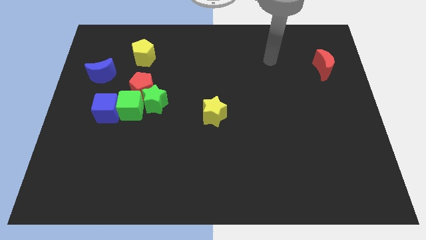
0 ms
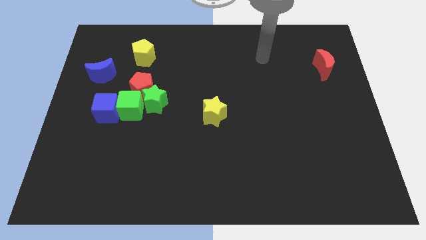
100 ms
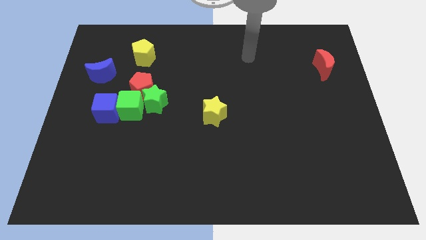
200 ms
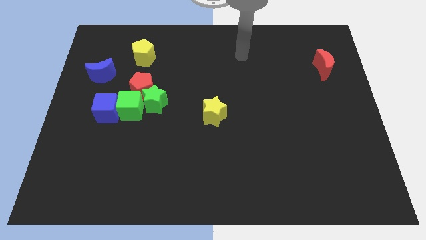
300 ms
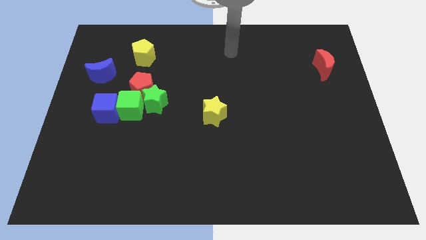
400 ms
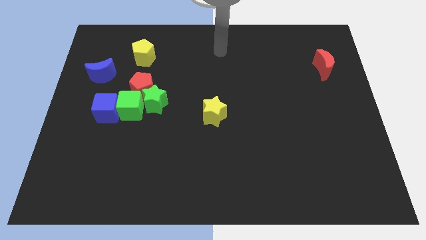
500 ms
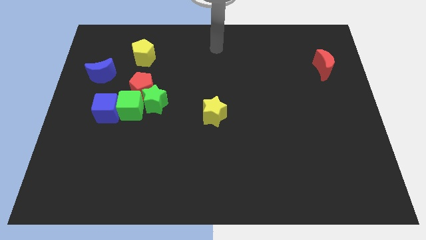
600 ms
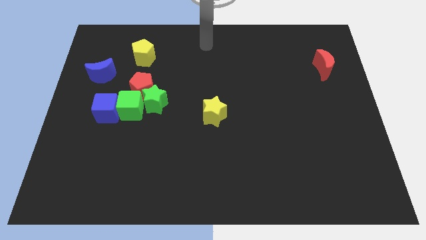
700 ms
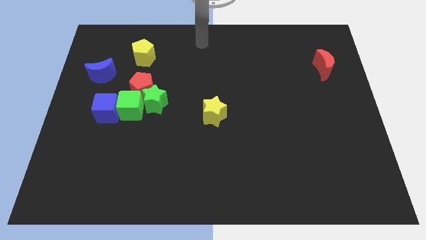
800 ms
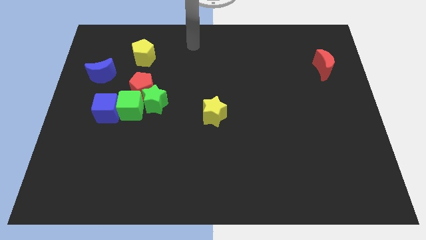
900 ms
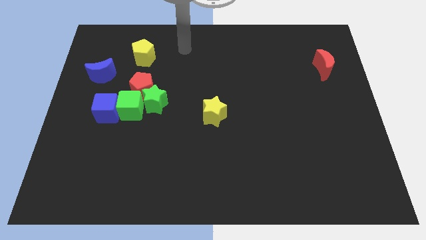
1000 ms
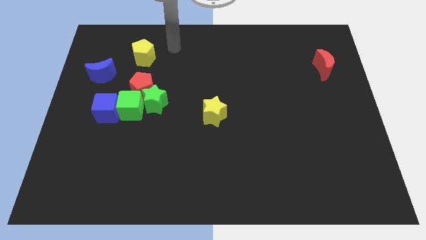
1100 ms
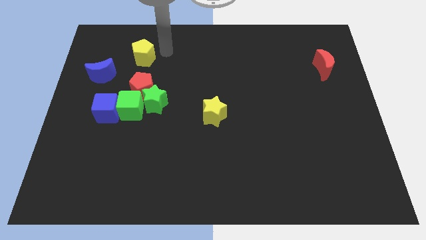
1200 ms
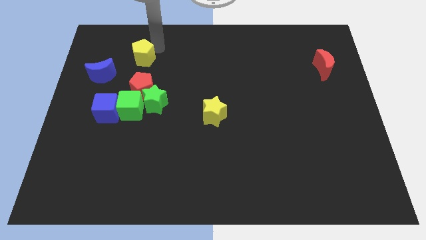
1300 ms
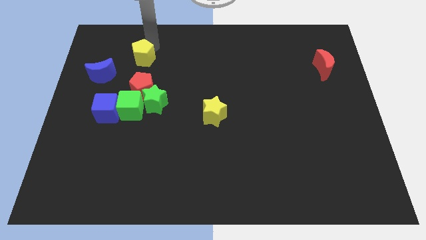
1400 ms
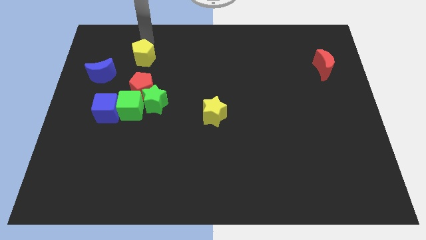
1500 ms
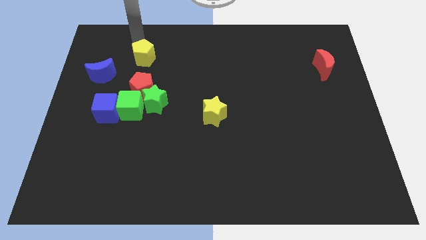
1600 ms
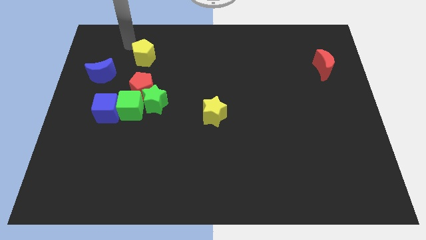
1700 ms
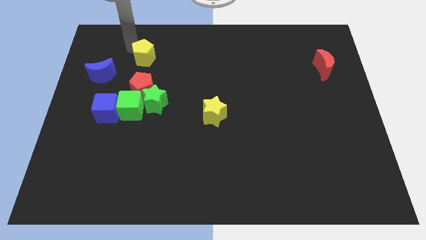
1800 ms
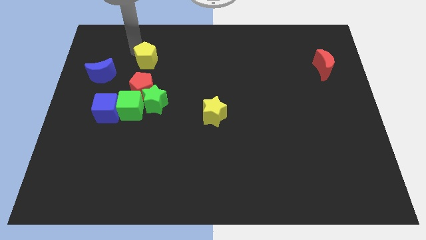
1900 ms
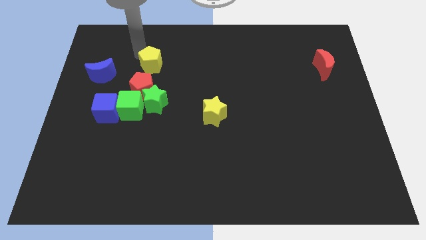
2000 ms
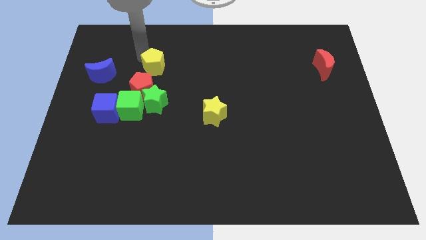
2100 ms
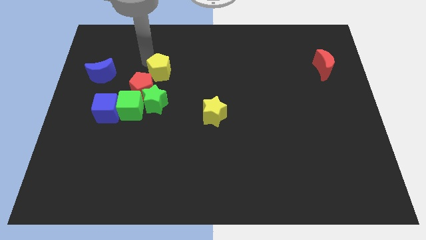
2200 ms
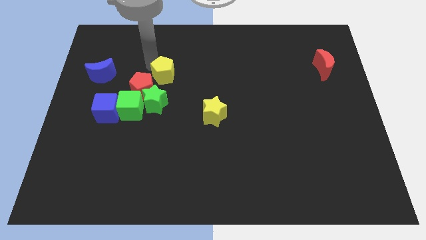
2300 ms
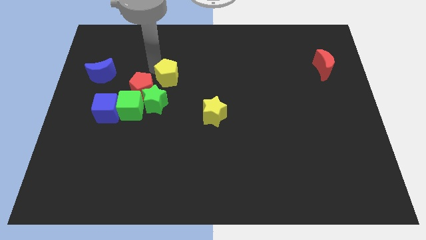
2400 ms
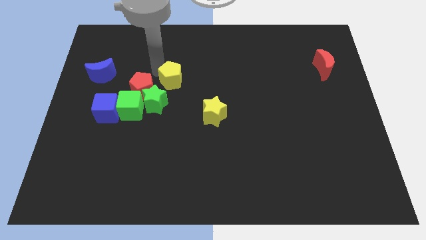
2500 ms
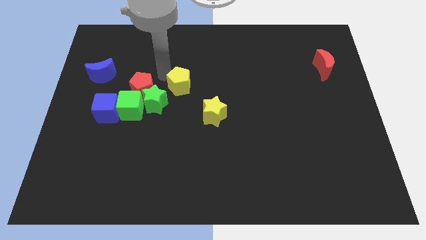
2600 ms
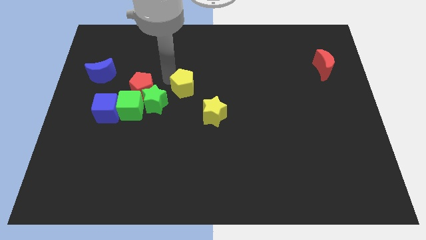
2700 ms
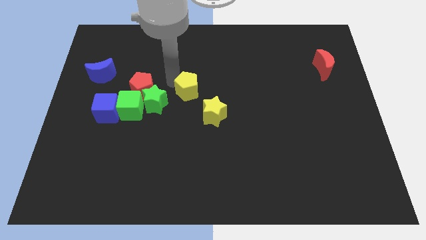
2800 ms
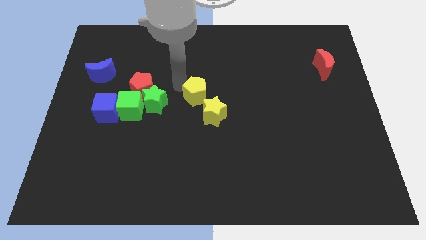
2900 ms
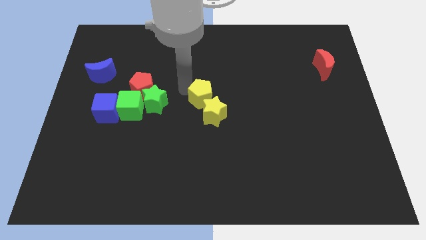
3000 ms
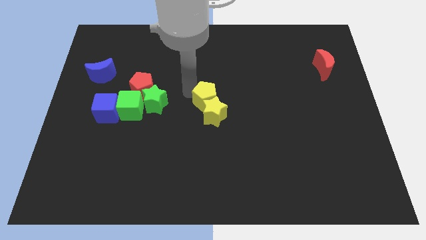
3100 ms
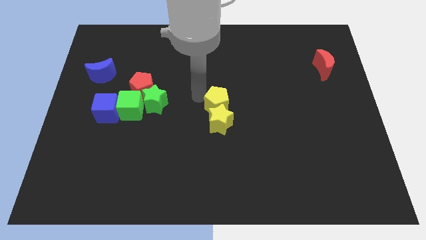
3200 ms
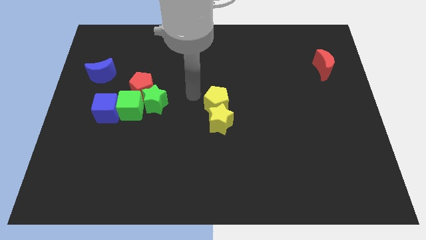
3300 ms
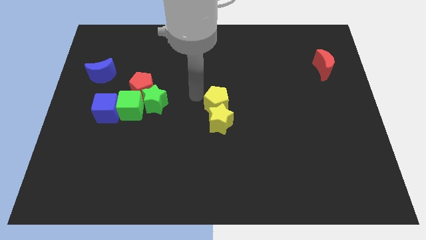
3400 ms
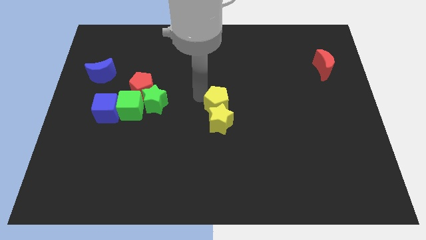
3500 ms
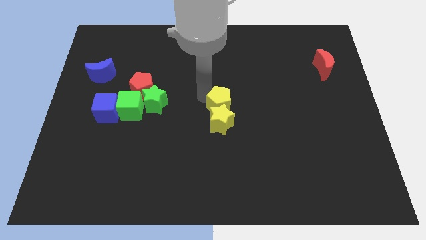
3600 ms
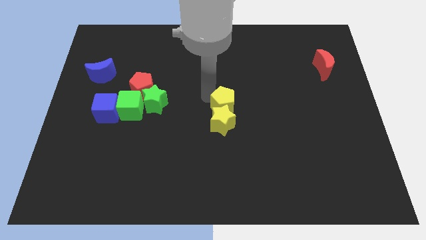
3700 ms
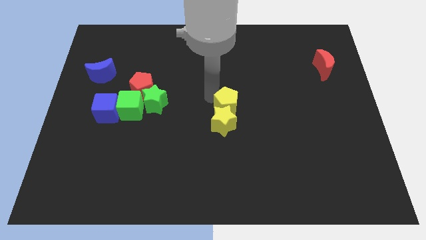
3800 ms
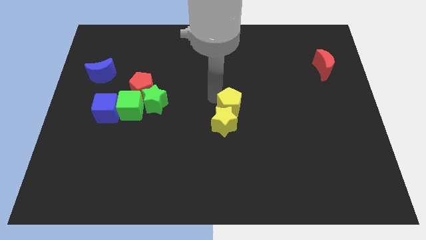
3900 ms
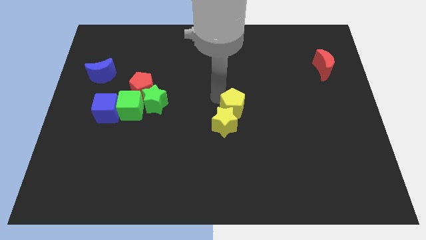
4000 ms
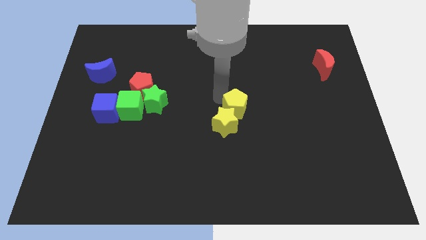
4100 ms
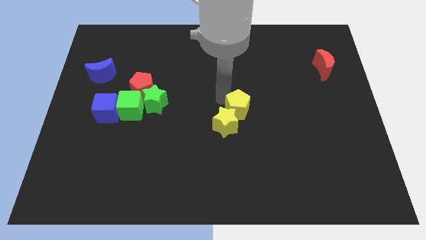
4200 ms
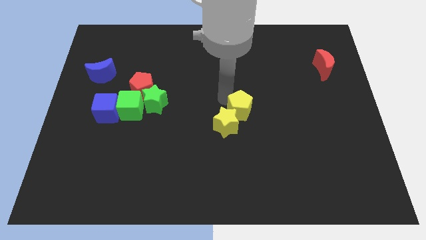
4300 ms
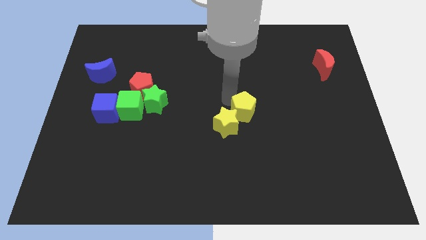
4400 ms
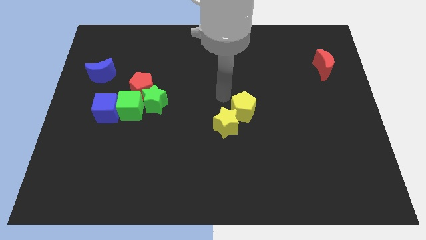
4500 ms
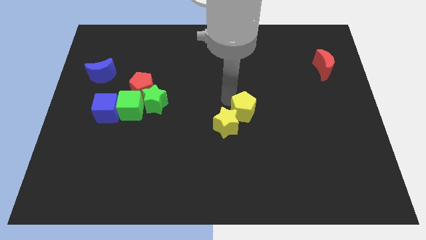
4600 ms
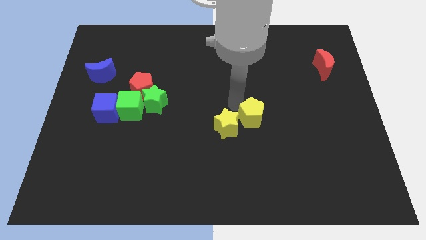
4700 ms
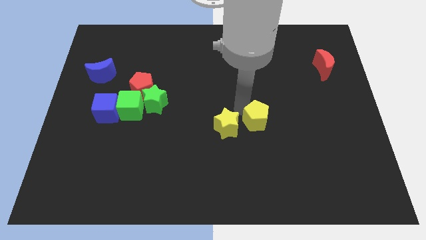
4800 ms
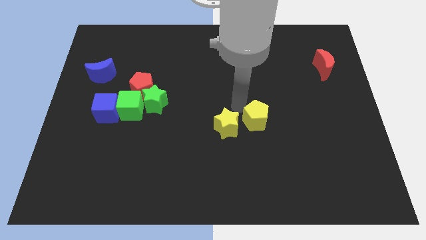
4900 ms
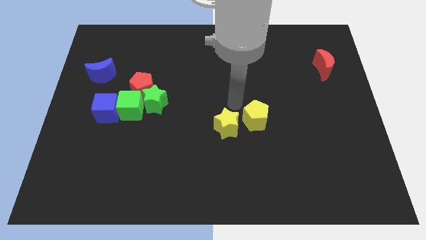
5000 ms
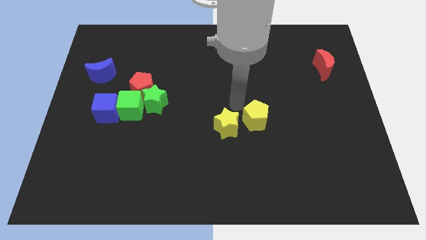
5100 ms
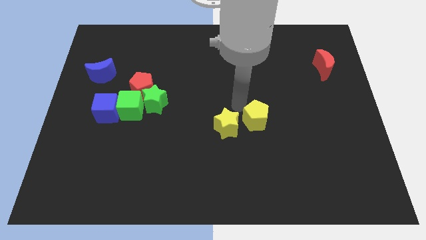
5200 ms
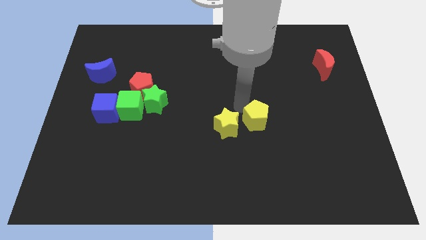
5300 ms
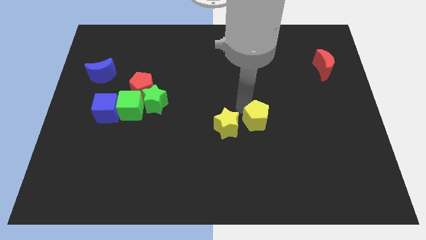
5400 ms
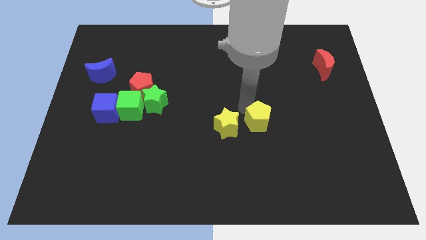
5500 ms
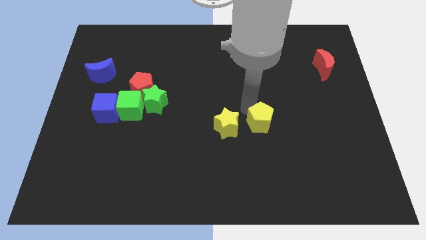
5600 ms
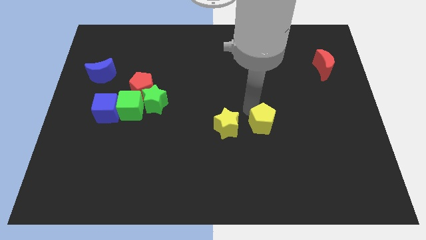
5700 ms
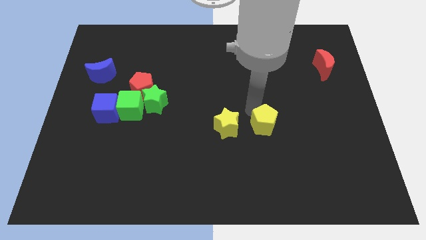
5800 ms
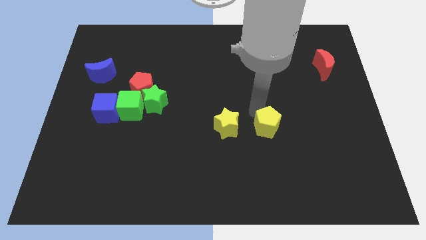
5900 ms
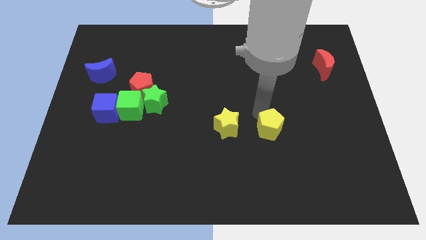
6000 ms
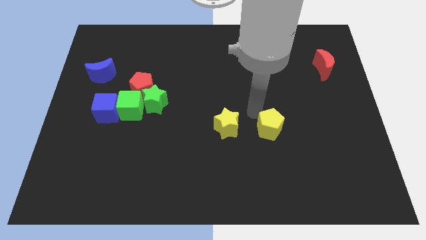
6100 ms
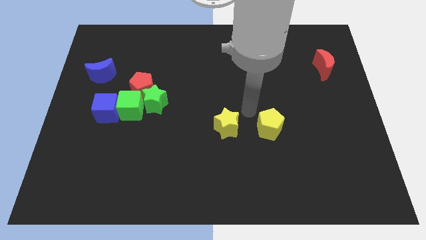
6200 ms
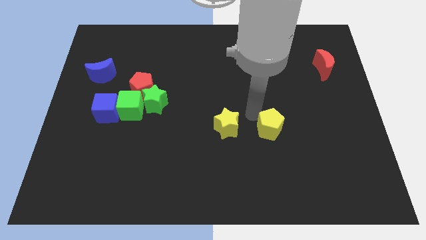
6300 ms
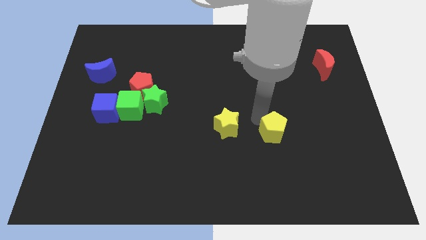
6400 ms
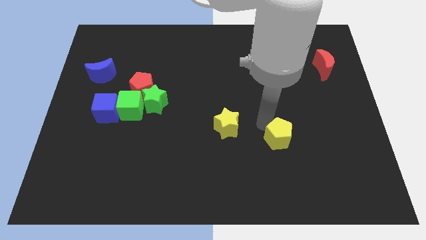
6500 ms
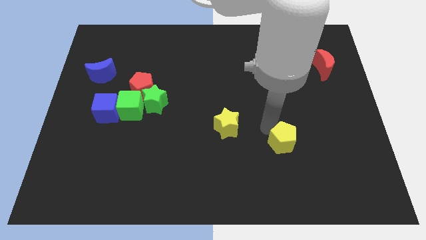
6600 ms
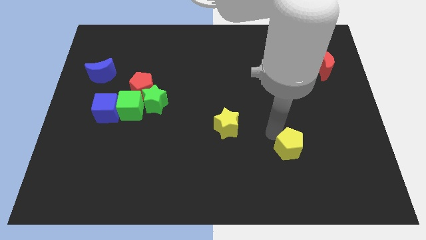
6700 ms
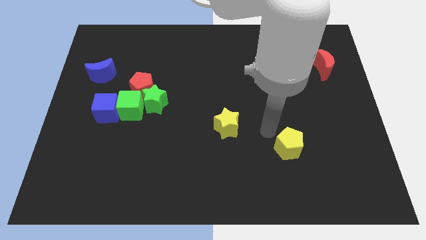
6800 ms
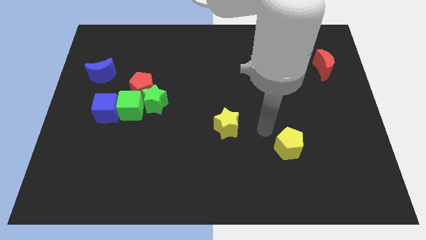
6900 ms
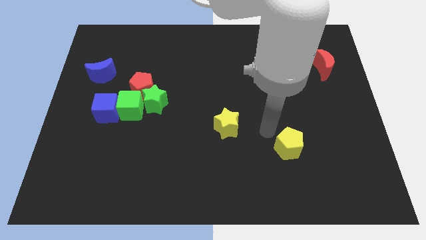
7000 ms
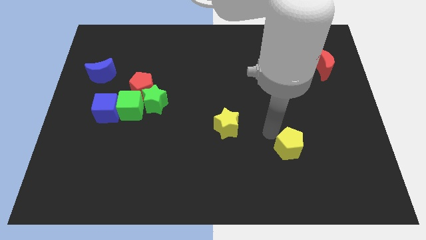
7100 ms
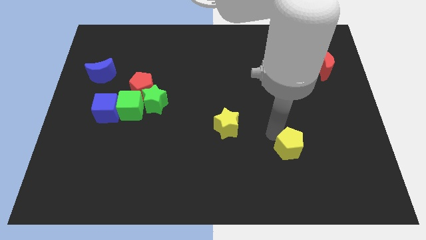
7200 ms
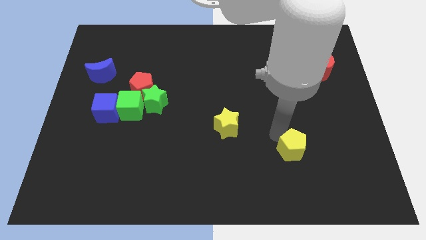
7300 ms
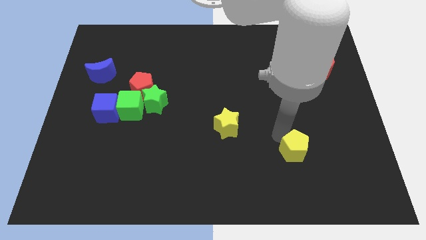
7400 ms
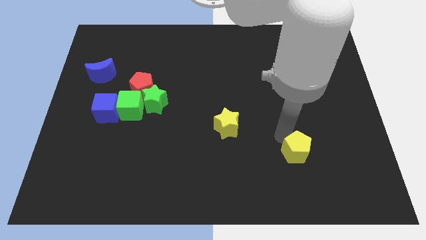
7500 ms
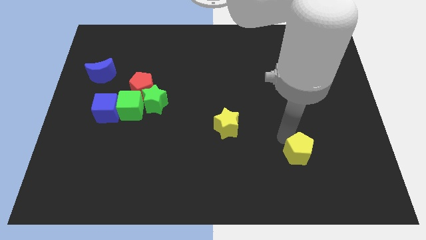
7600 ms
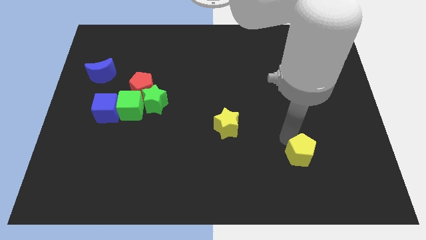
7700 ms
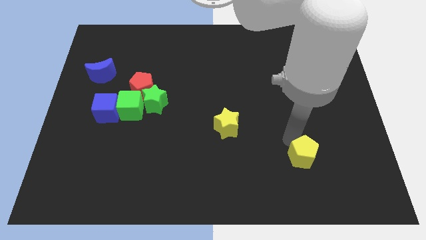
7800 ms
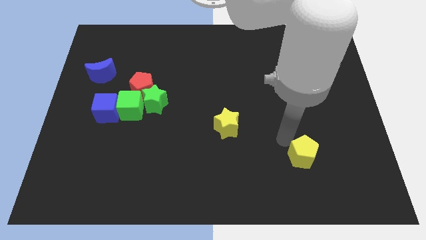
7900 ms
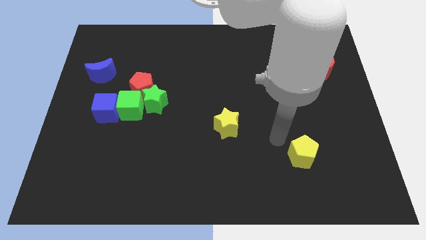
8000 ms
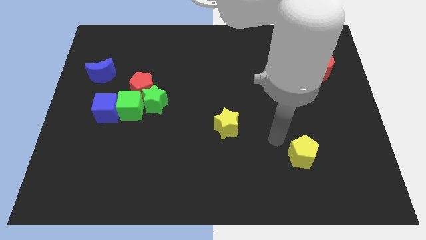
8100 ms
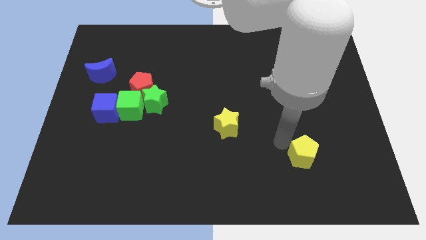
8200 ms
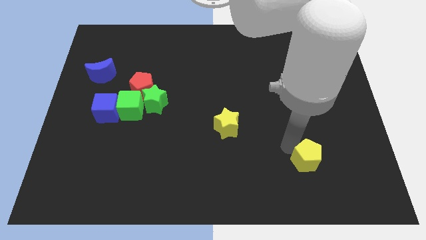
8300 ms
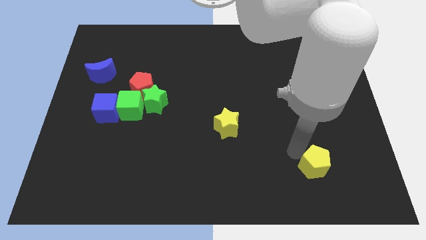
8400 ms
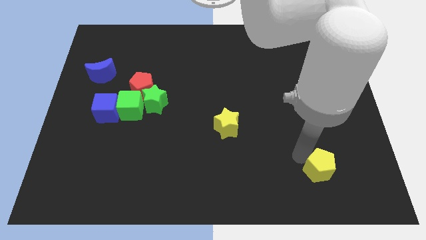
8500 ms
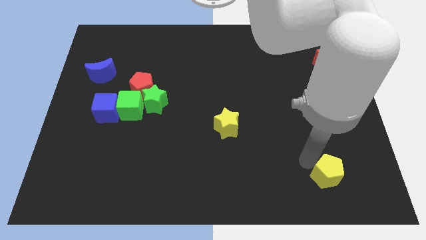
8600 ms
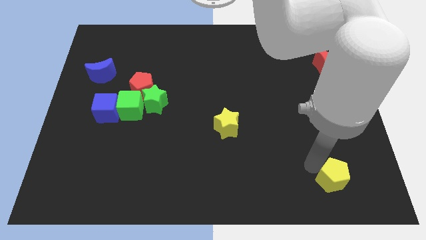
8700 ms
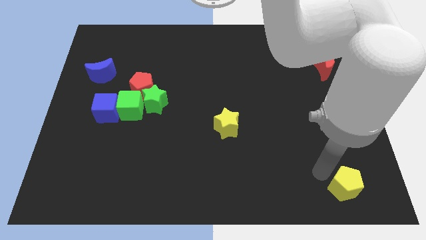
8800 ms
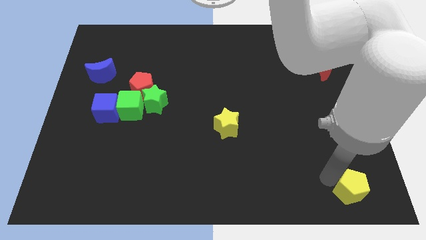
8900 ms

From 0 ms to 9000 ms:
move the yellow pentagon to the bottom right of the board
